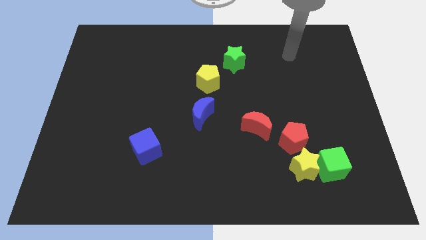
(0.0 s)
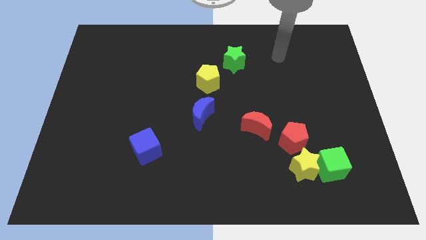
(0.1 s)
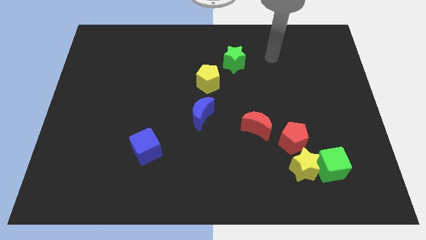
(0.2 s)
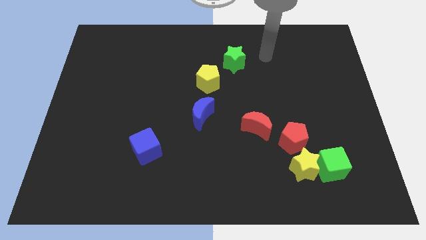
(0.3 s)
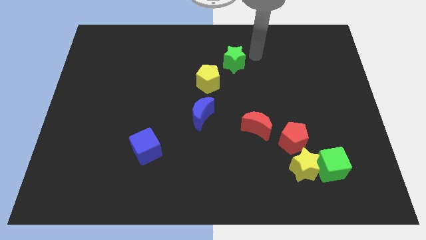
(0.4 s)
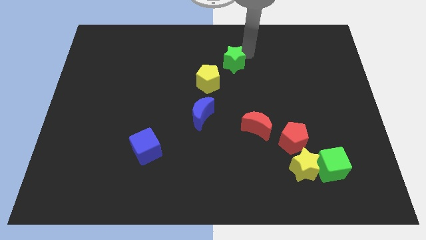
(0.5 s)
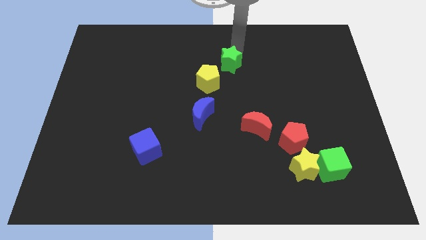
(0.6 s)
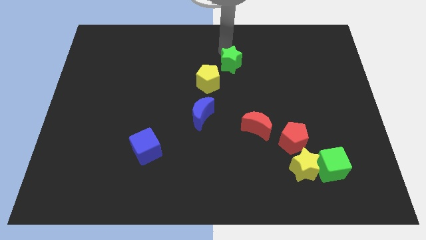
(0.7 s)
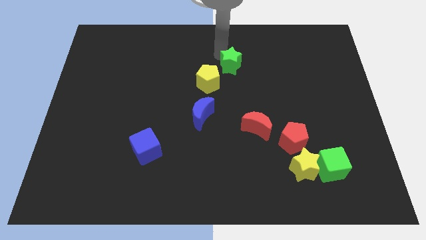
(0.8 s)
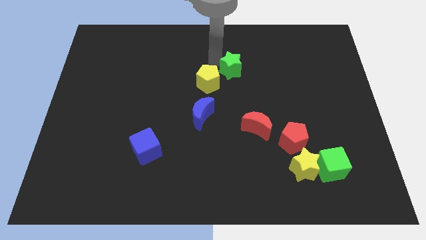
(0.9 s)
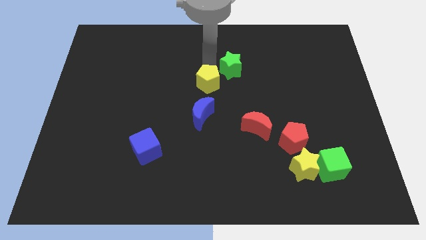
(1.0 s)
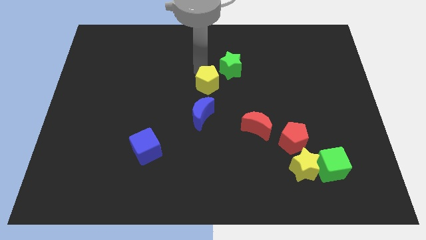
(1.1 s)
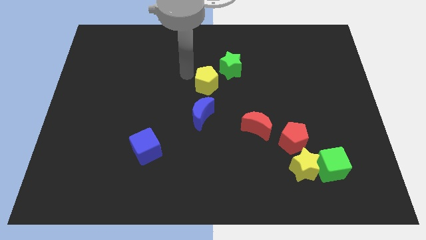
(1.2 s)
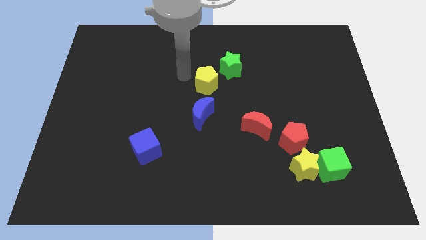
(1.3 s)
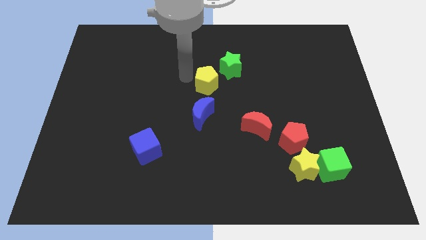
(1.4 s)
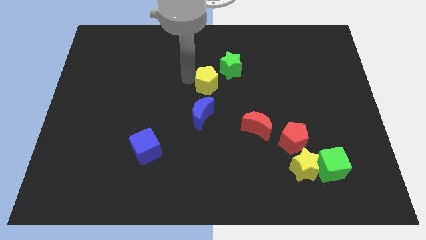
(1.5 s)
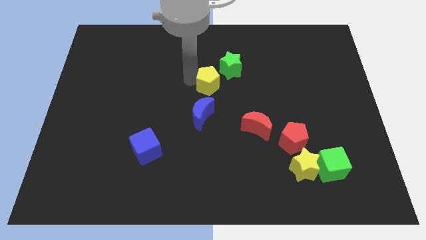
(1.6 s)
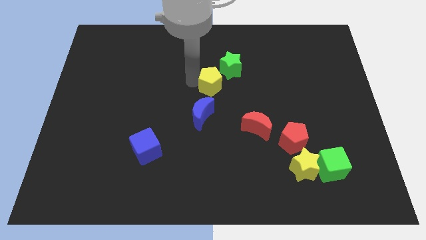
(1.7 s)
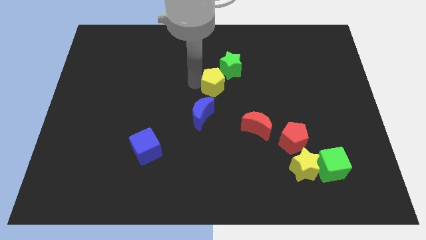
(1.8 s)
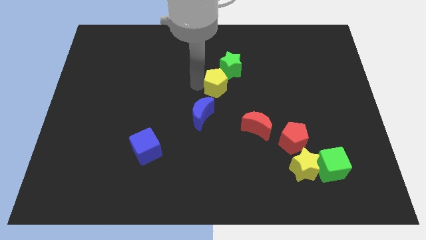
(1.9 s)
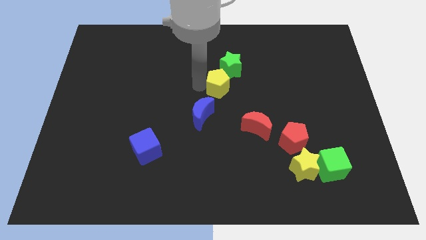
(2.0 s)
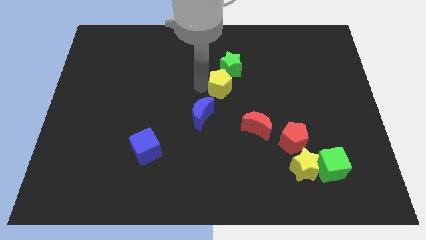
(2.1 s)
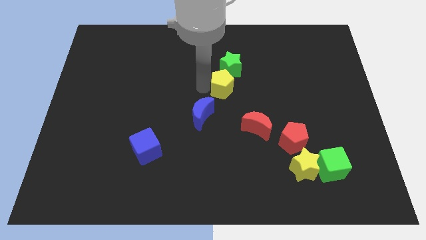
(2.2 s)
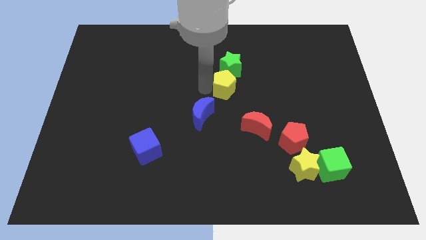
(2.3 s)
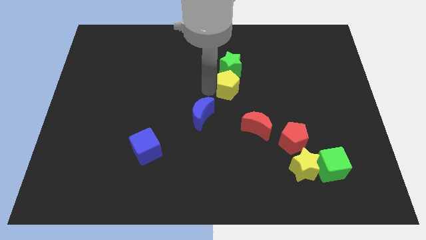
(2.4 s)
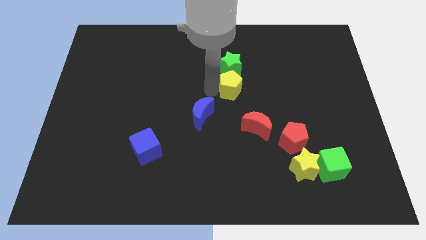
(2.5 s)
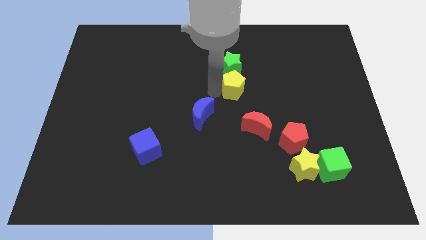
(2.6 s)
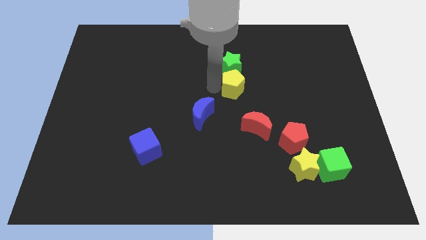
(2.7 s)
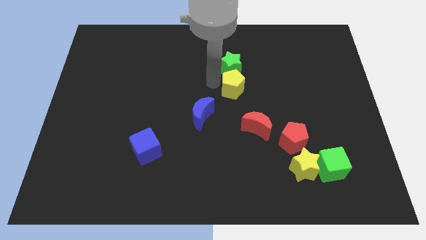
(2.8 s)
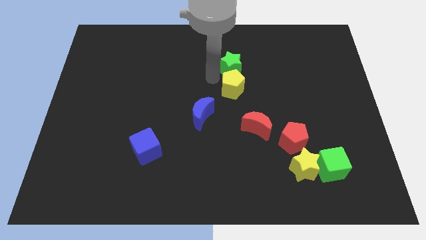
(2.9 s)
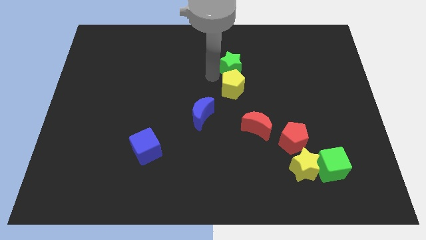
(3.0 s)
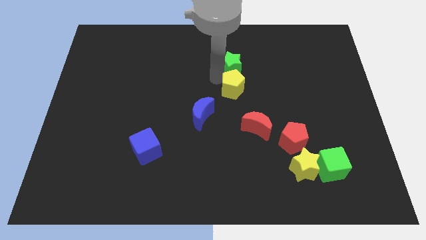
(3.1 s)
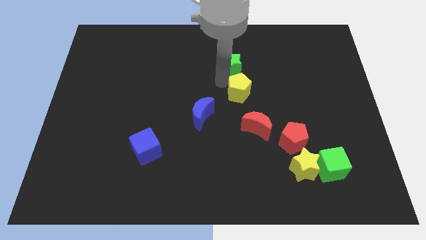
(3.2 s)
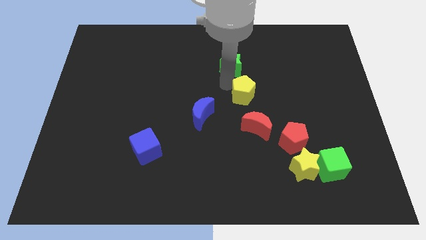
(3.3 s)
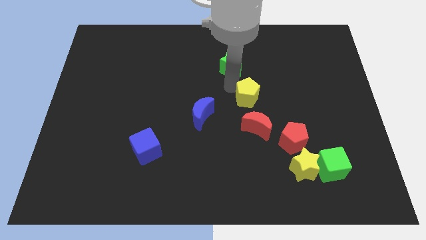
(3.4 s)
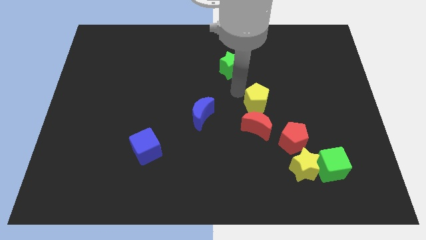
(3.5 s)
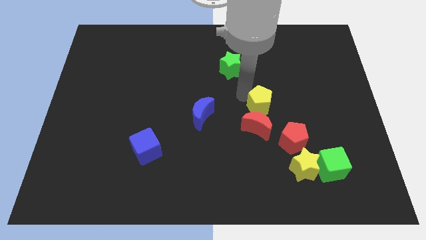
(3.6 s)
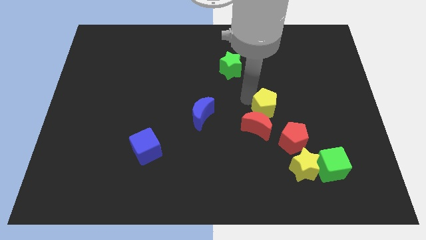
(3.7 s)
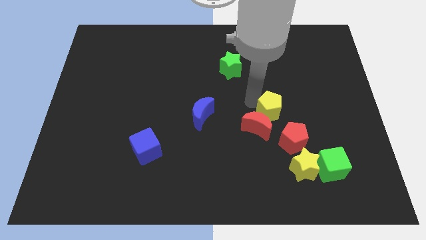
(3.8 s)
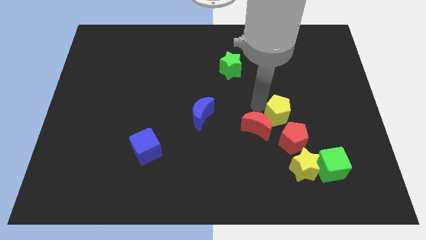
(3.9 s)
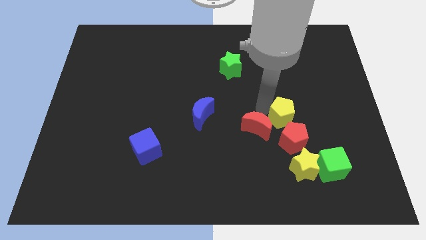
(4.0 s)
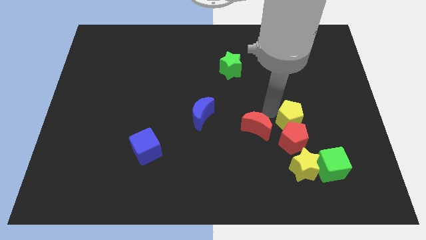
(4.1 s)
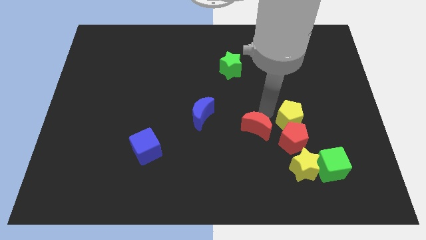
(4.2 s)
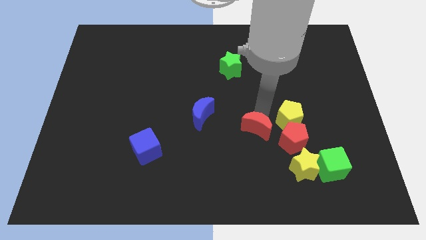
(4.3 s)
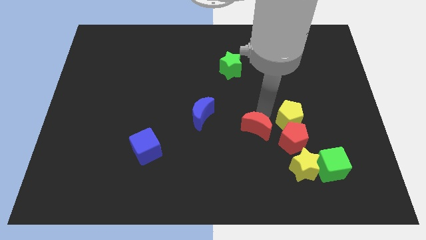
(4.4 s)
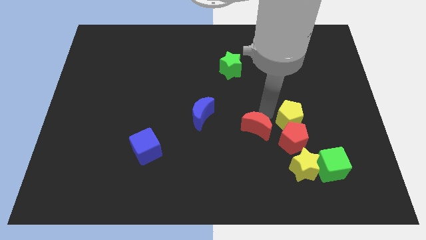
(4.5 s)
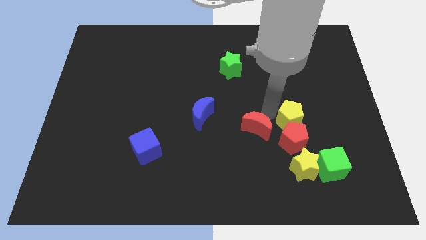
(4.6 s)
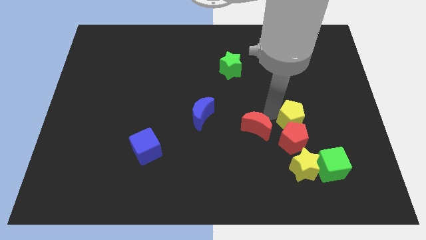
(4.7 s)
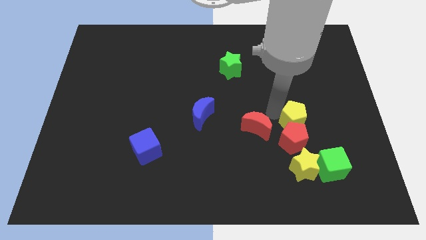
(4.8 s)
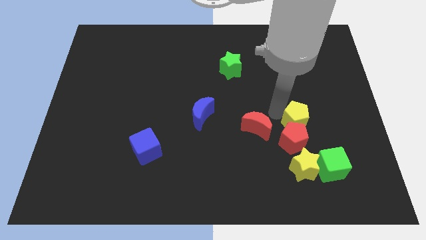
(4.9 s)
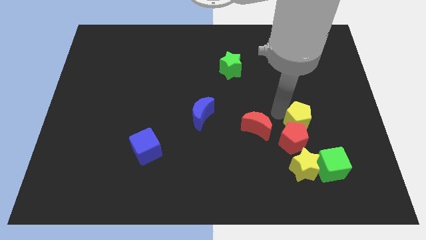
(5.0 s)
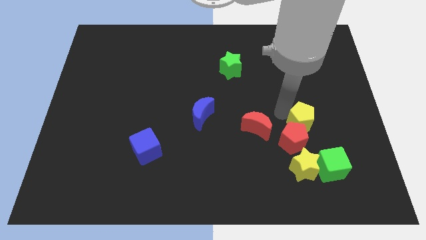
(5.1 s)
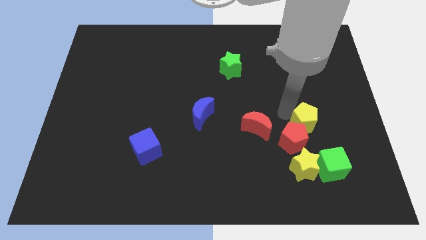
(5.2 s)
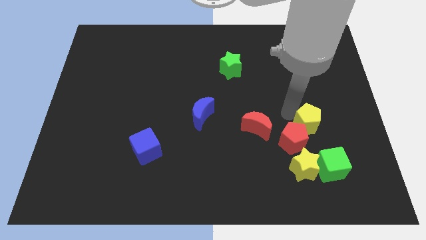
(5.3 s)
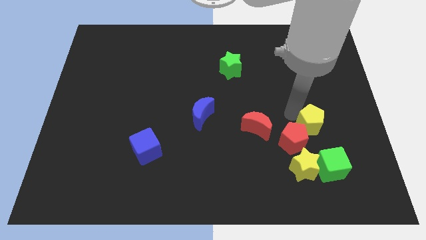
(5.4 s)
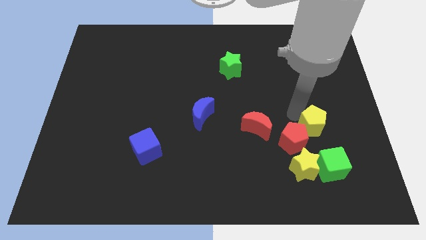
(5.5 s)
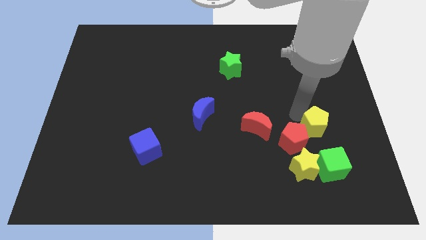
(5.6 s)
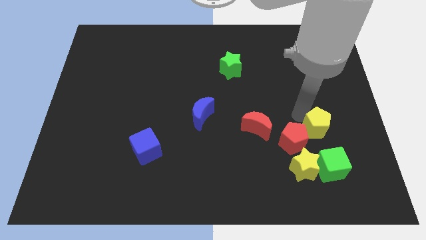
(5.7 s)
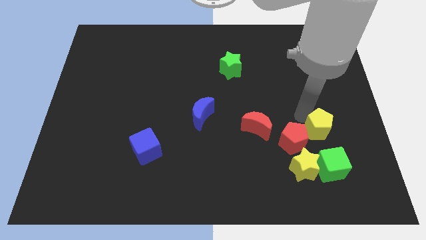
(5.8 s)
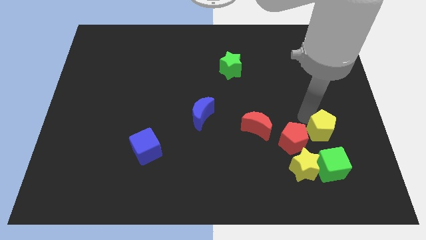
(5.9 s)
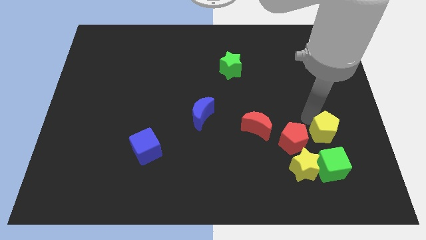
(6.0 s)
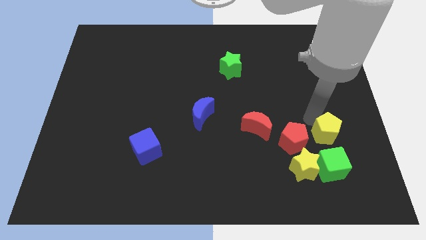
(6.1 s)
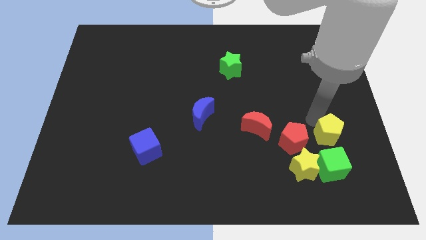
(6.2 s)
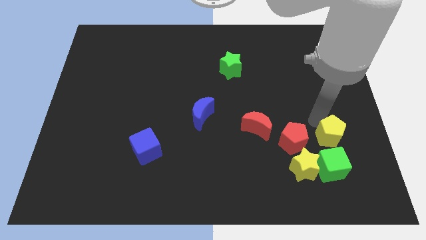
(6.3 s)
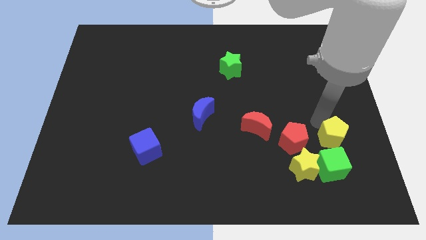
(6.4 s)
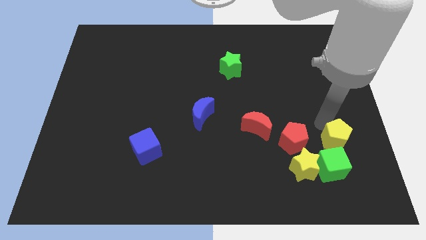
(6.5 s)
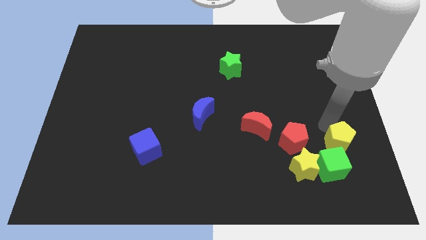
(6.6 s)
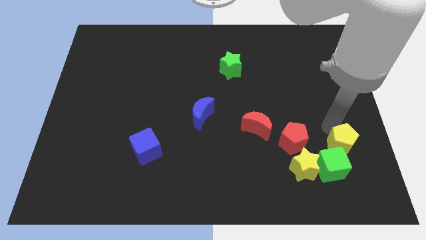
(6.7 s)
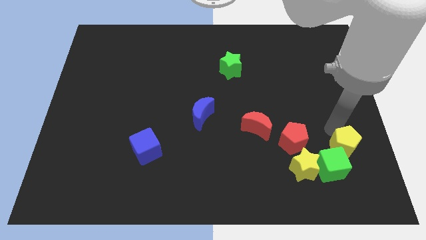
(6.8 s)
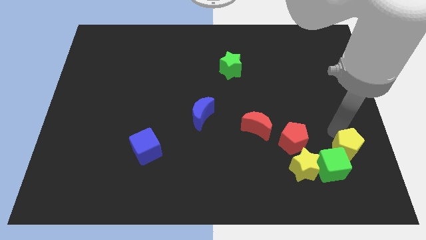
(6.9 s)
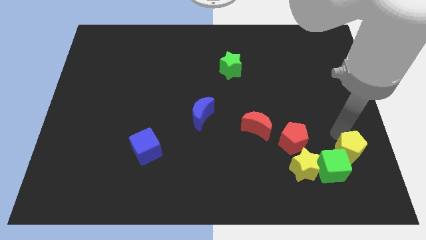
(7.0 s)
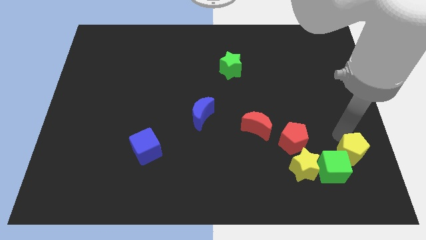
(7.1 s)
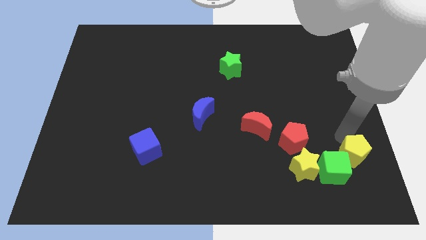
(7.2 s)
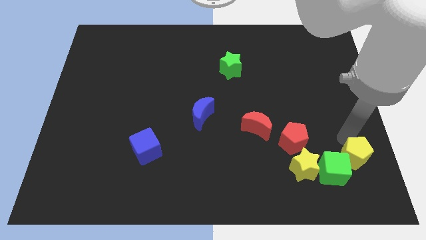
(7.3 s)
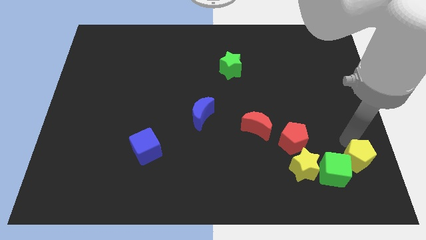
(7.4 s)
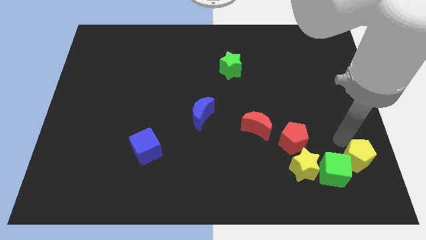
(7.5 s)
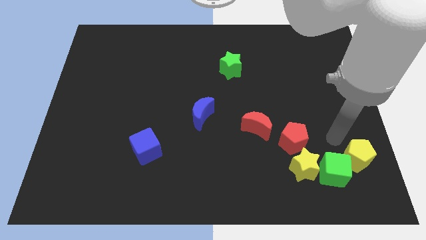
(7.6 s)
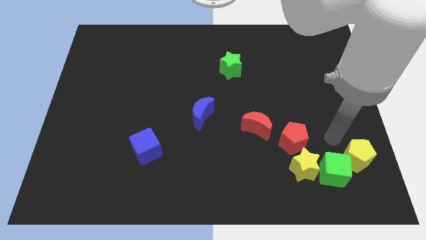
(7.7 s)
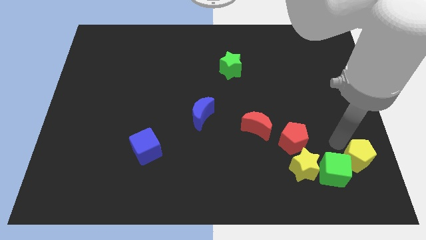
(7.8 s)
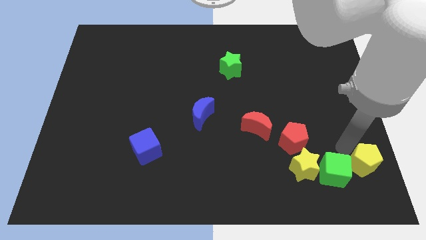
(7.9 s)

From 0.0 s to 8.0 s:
put the yellow pentagon to the lower right corner
